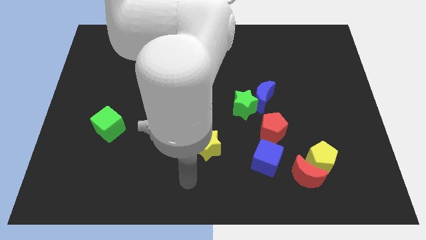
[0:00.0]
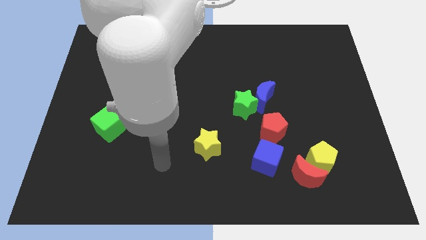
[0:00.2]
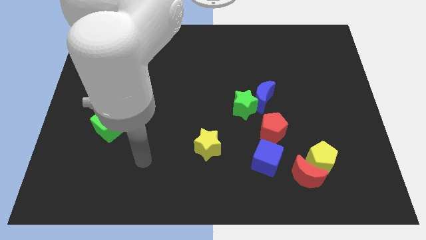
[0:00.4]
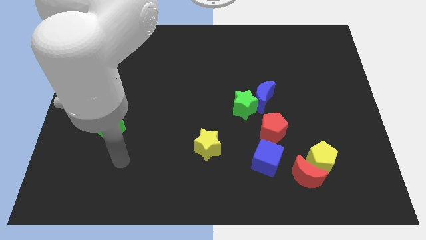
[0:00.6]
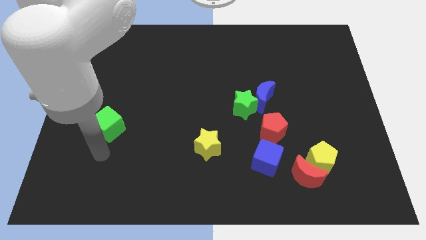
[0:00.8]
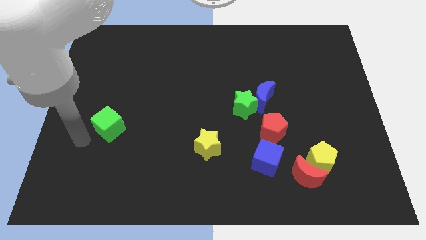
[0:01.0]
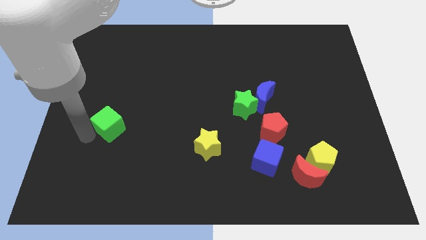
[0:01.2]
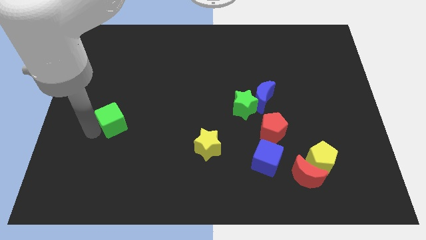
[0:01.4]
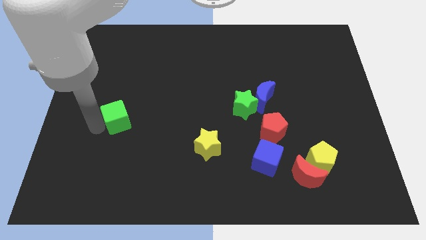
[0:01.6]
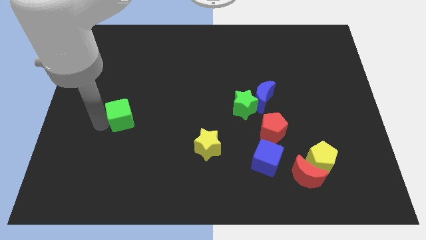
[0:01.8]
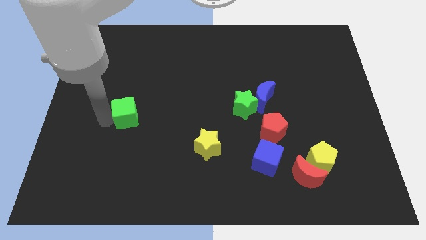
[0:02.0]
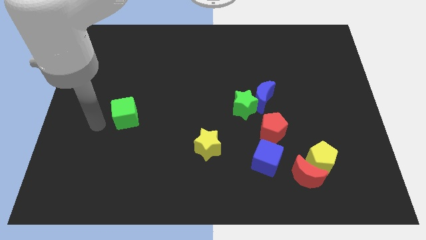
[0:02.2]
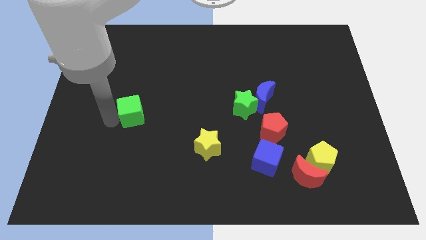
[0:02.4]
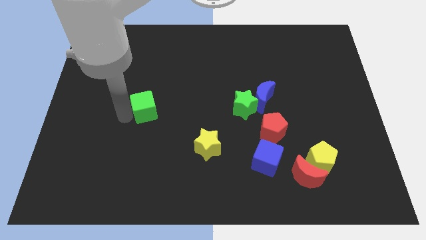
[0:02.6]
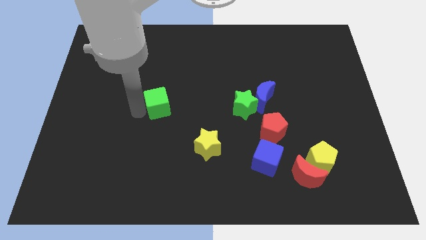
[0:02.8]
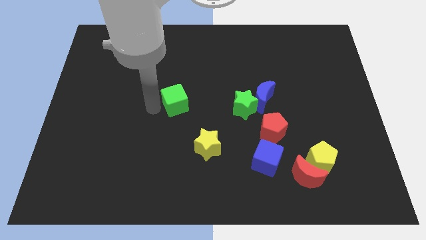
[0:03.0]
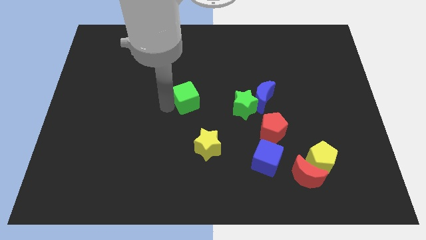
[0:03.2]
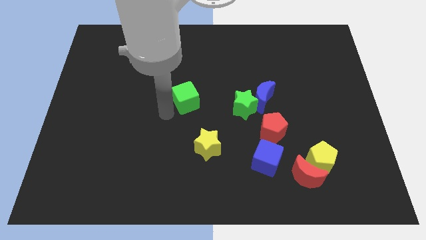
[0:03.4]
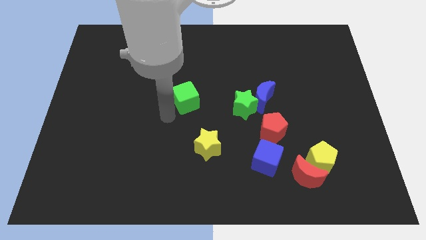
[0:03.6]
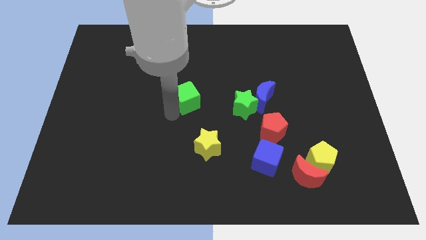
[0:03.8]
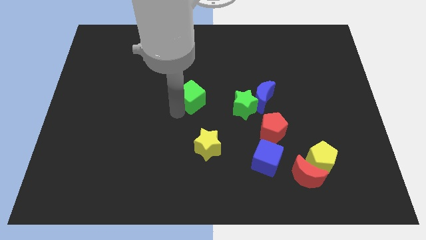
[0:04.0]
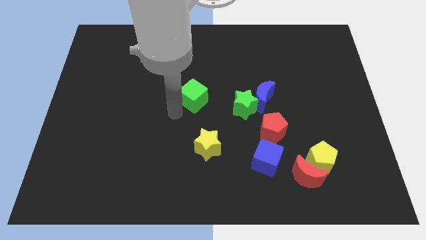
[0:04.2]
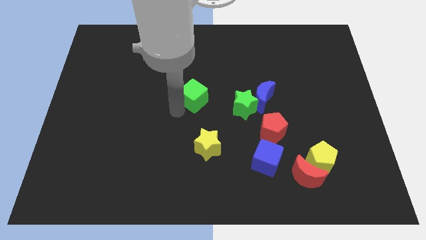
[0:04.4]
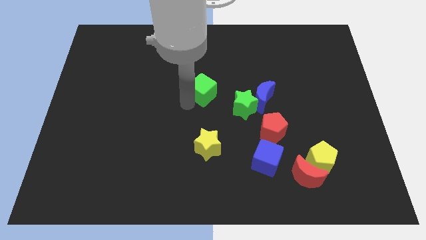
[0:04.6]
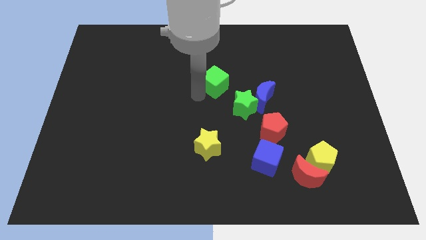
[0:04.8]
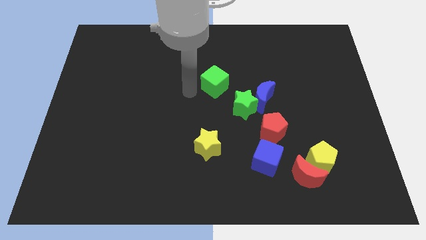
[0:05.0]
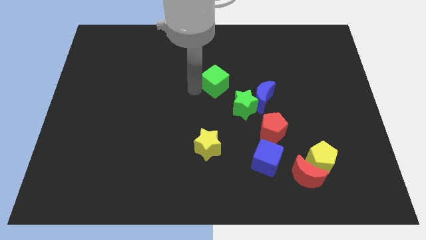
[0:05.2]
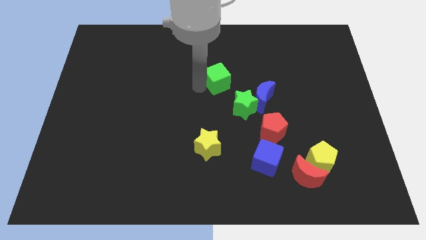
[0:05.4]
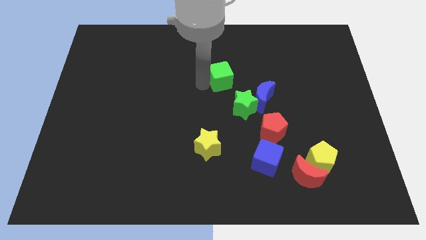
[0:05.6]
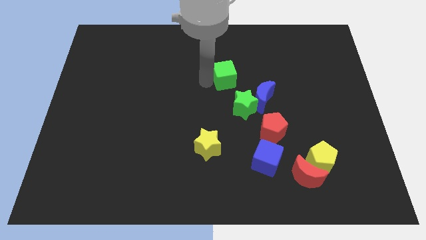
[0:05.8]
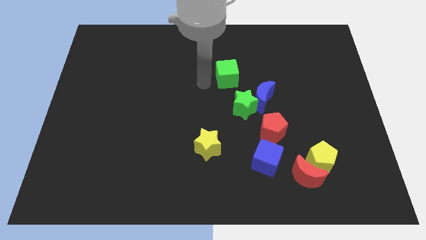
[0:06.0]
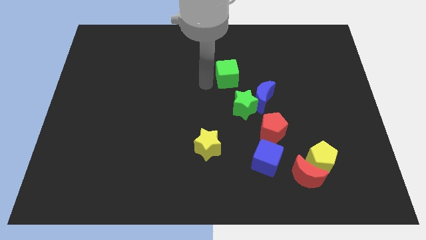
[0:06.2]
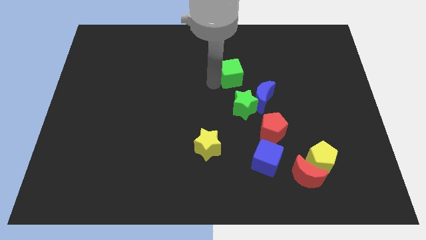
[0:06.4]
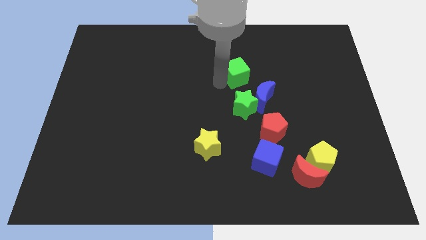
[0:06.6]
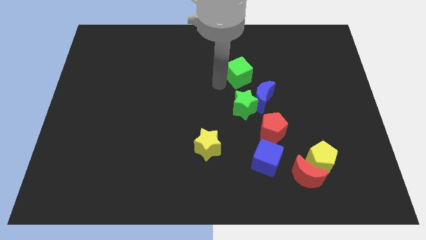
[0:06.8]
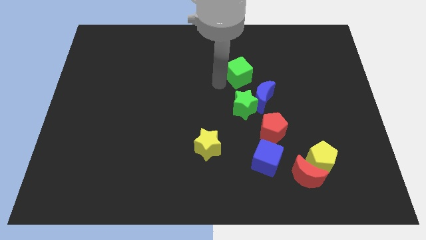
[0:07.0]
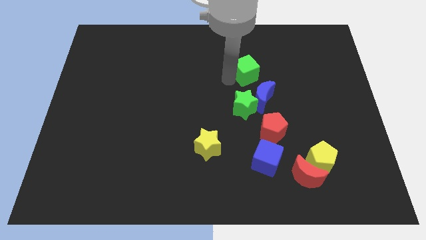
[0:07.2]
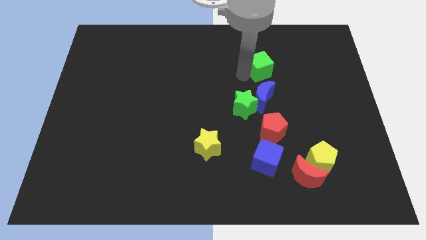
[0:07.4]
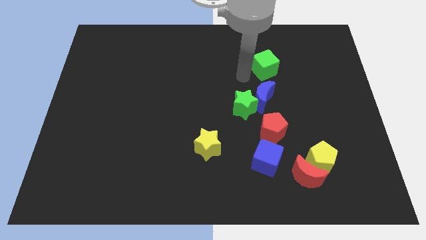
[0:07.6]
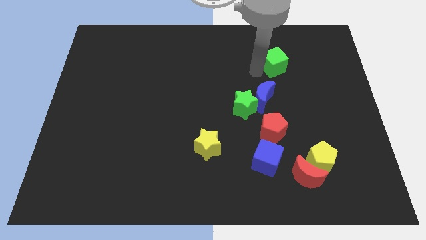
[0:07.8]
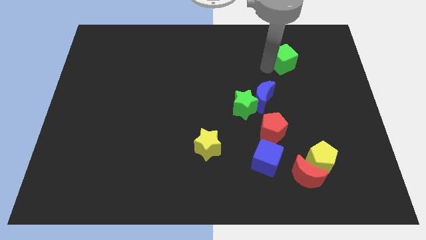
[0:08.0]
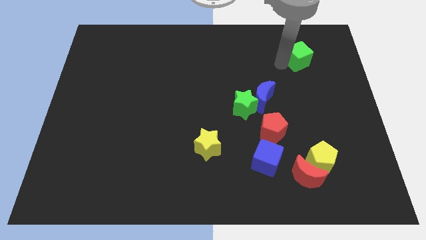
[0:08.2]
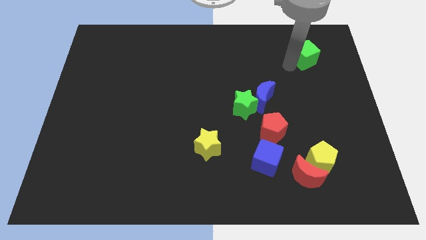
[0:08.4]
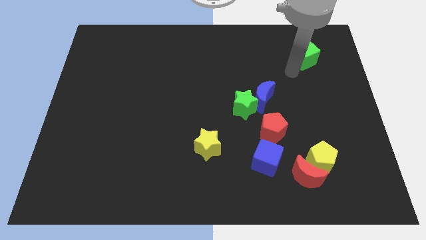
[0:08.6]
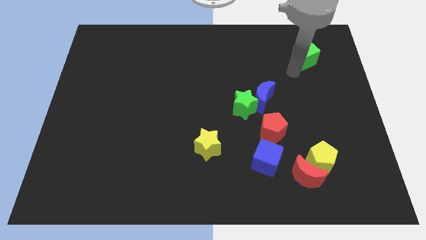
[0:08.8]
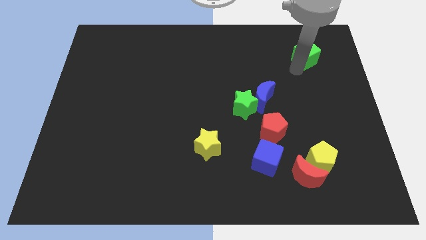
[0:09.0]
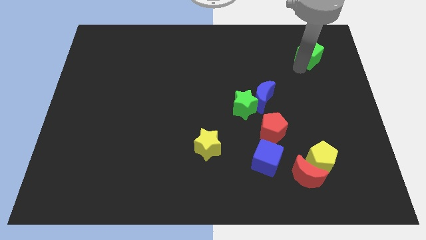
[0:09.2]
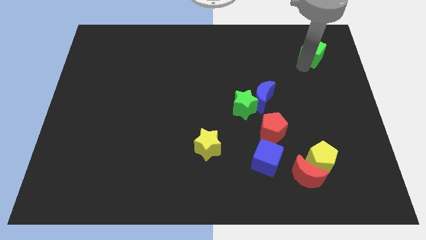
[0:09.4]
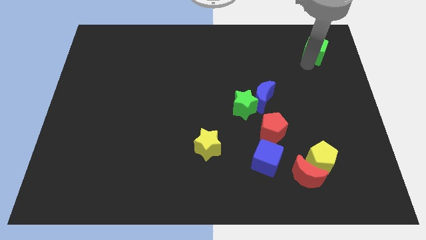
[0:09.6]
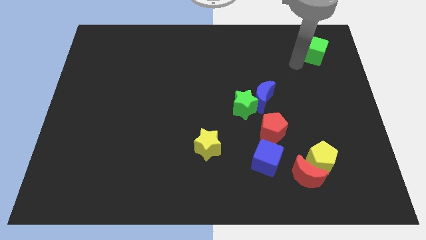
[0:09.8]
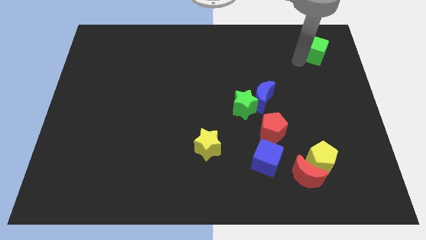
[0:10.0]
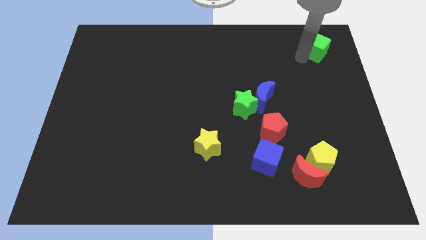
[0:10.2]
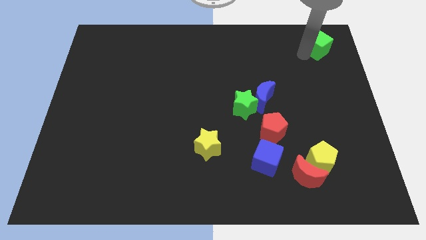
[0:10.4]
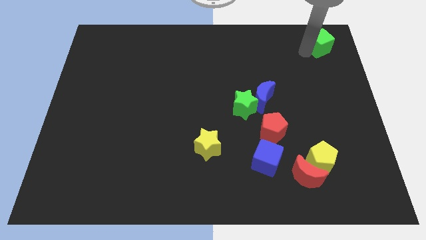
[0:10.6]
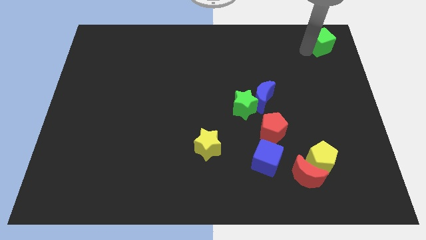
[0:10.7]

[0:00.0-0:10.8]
push the green cube to the top right corner
